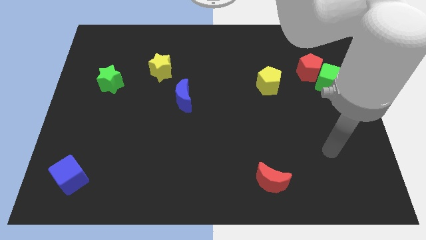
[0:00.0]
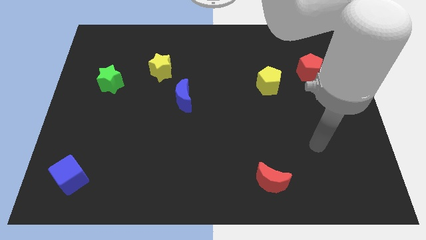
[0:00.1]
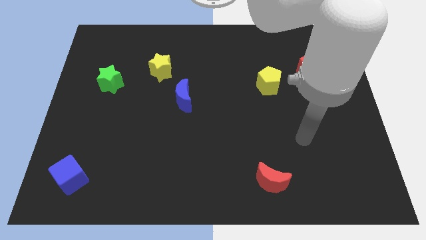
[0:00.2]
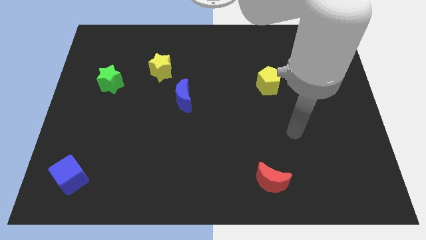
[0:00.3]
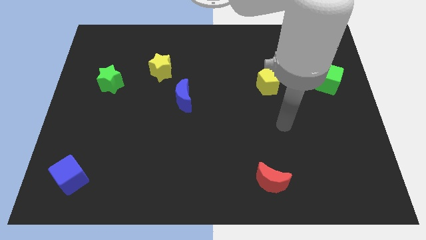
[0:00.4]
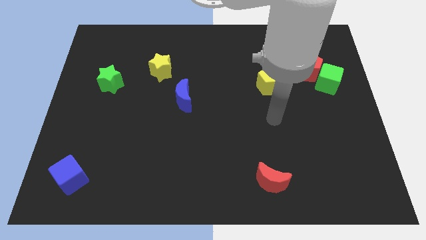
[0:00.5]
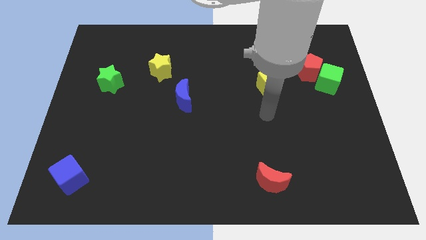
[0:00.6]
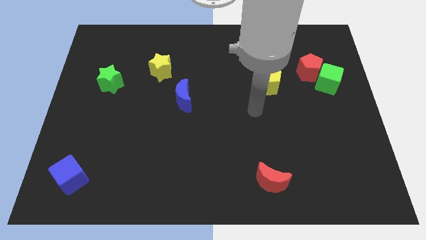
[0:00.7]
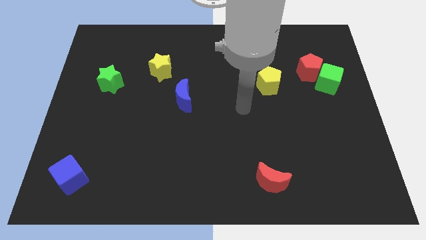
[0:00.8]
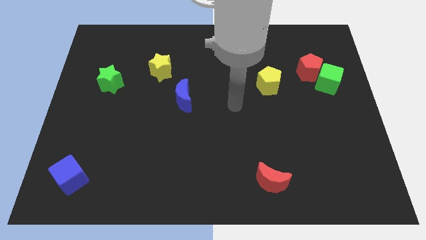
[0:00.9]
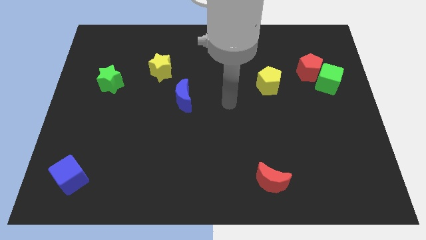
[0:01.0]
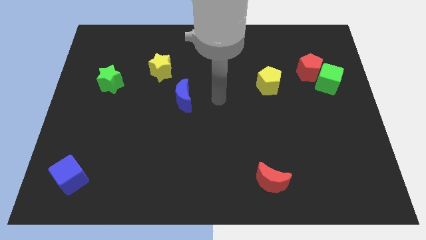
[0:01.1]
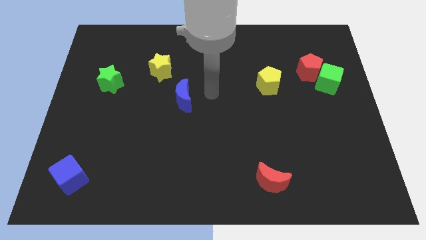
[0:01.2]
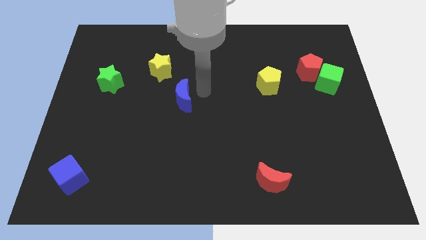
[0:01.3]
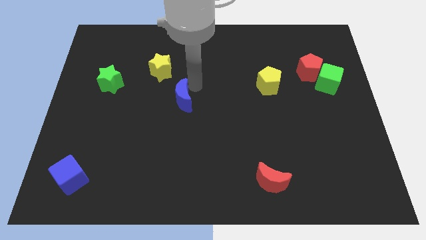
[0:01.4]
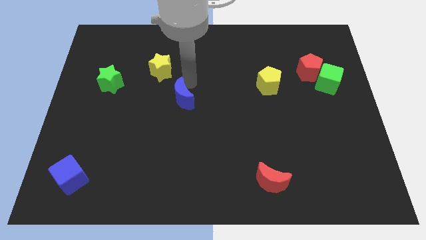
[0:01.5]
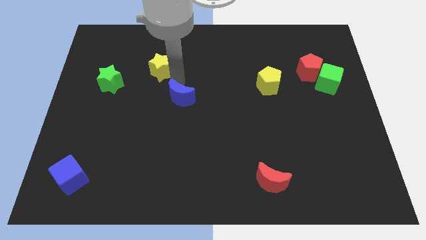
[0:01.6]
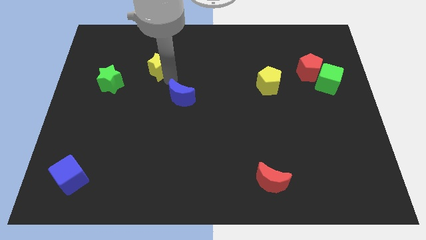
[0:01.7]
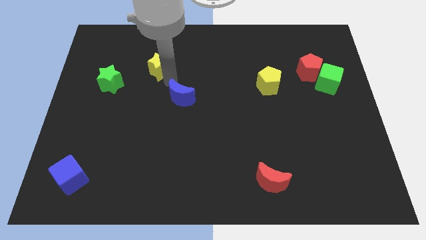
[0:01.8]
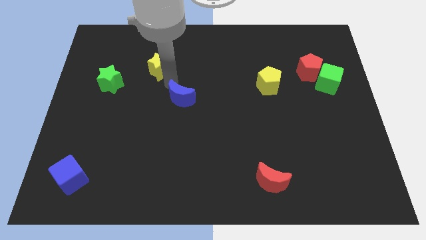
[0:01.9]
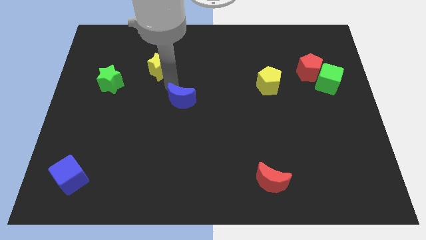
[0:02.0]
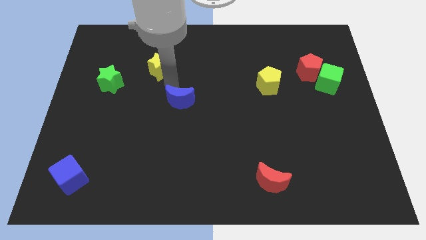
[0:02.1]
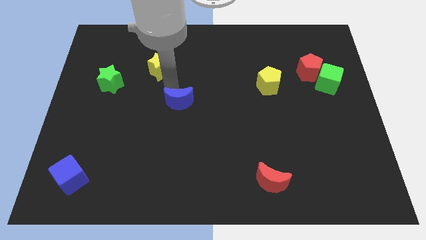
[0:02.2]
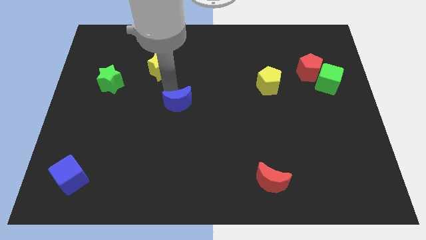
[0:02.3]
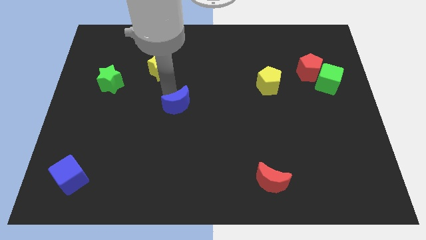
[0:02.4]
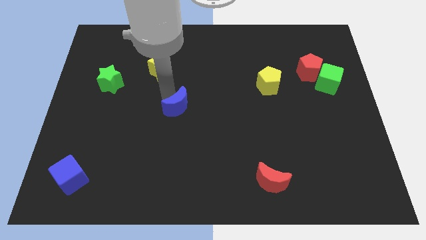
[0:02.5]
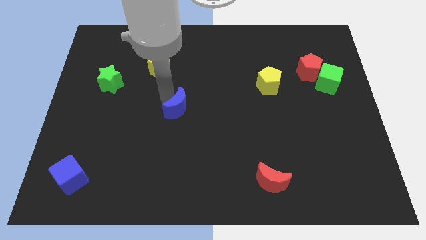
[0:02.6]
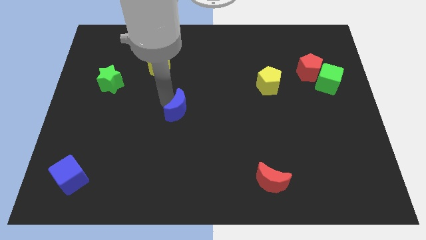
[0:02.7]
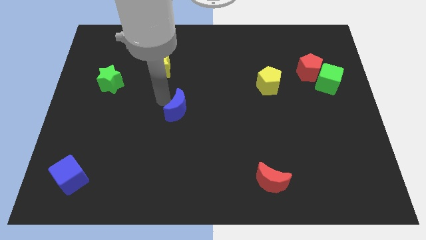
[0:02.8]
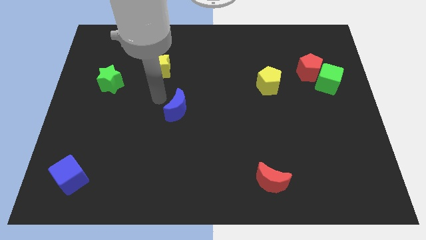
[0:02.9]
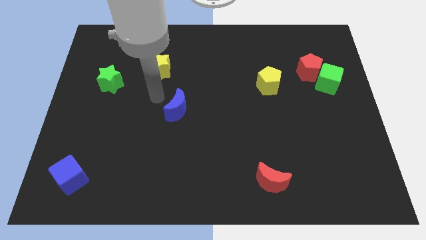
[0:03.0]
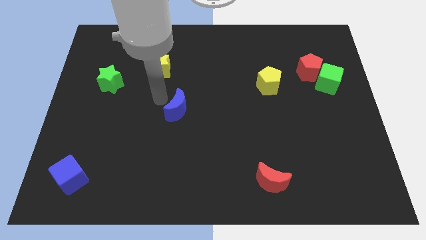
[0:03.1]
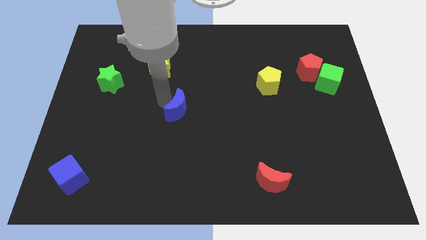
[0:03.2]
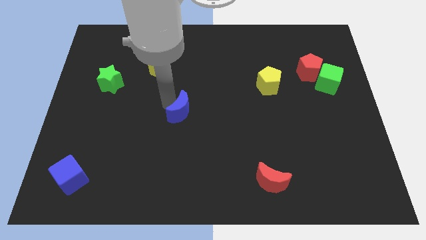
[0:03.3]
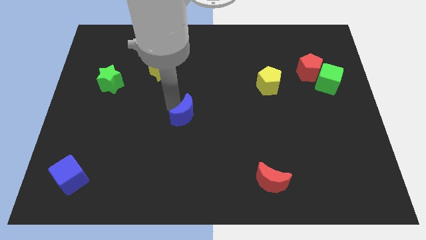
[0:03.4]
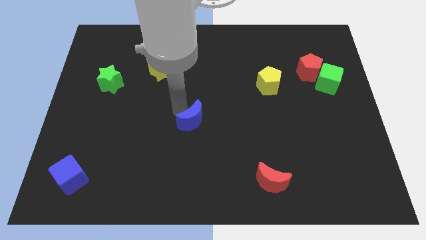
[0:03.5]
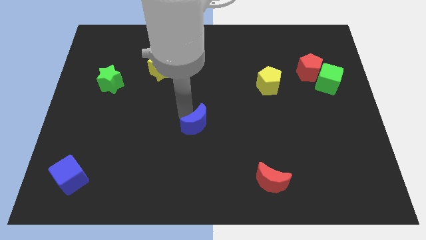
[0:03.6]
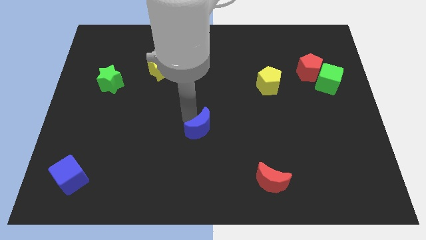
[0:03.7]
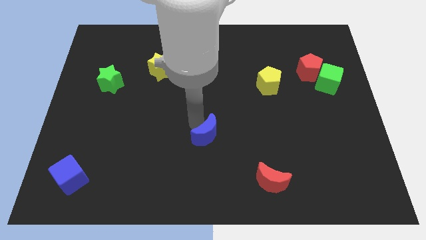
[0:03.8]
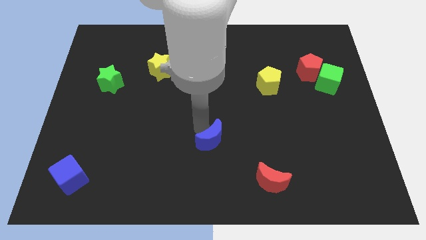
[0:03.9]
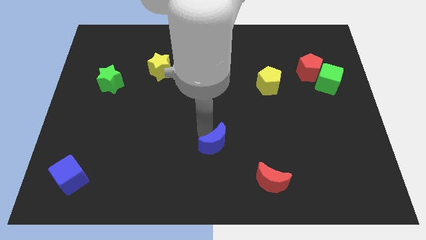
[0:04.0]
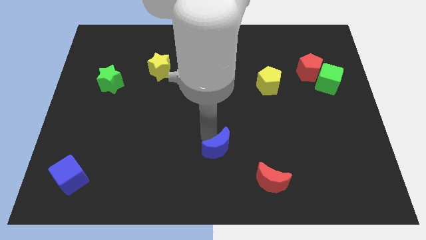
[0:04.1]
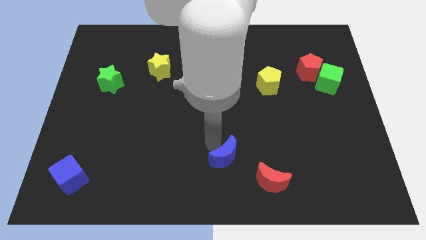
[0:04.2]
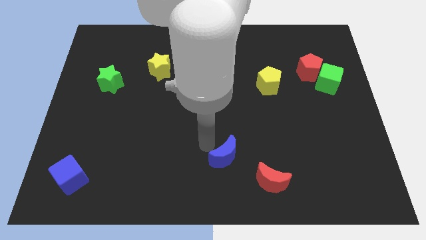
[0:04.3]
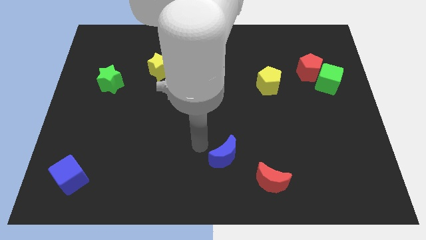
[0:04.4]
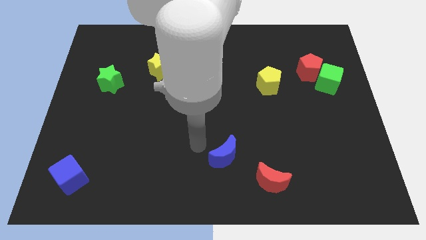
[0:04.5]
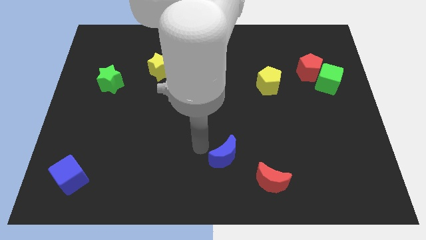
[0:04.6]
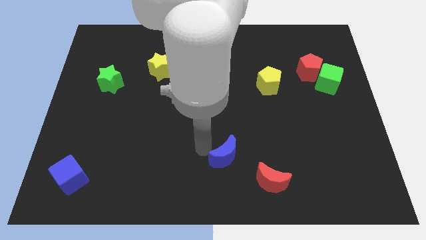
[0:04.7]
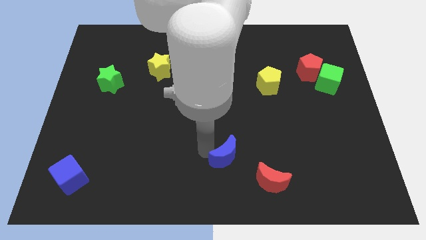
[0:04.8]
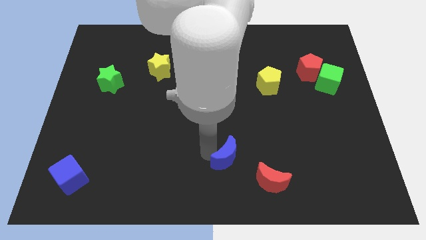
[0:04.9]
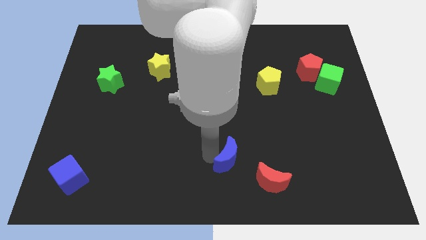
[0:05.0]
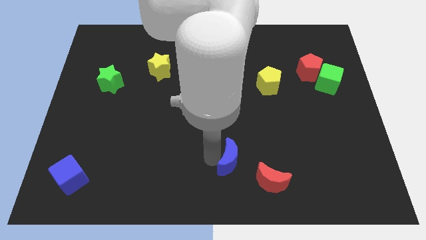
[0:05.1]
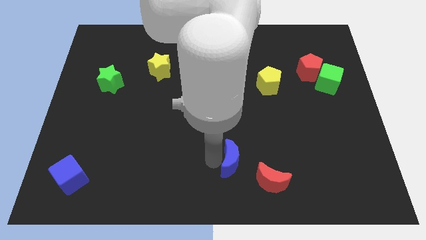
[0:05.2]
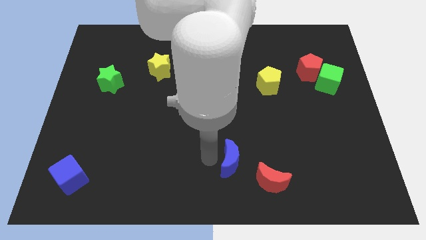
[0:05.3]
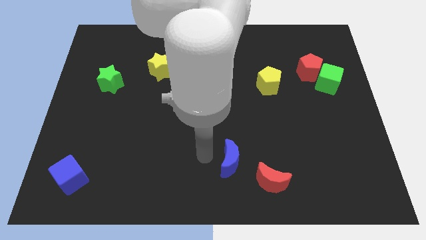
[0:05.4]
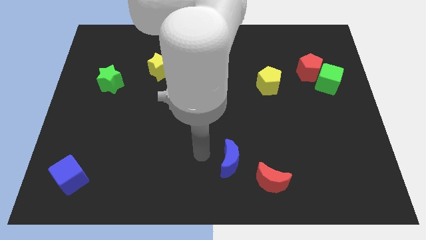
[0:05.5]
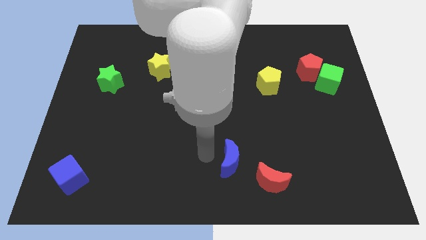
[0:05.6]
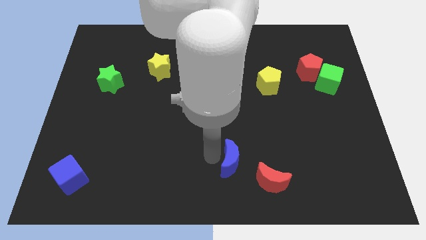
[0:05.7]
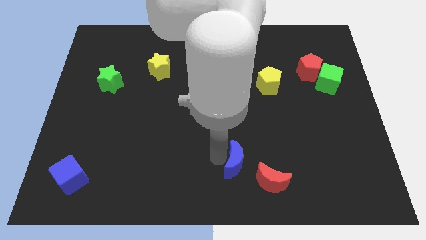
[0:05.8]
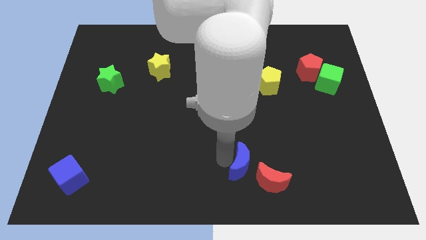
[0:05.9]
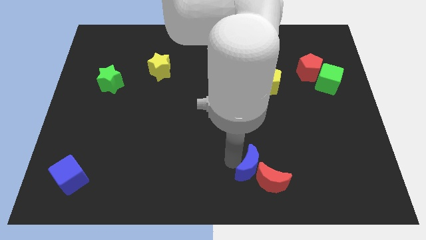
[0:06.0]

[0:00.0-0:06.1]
slide the blue moon close to the red moon
